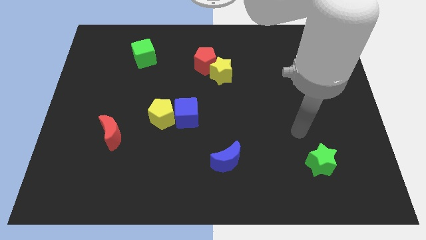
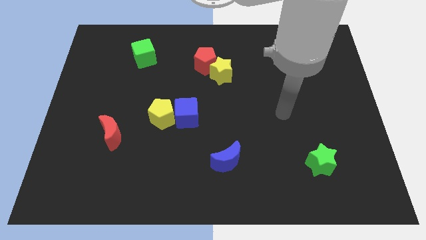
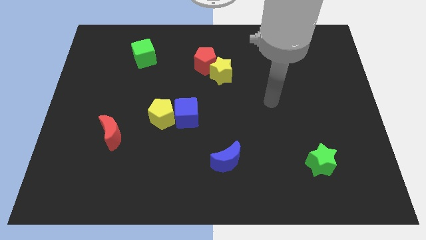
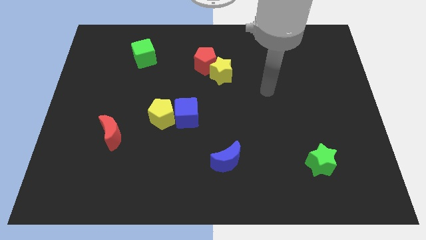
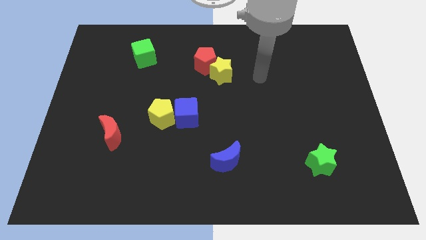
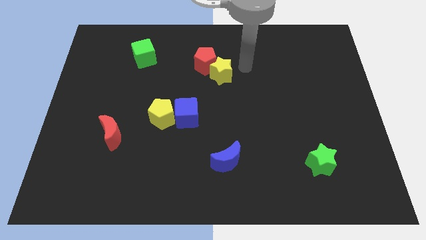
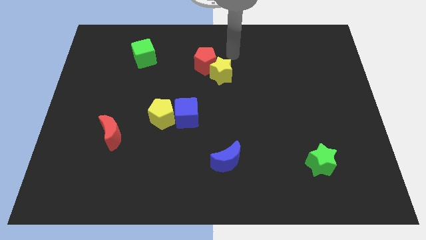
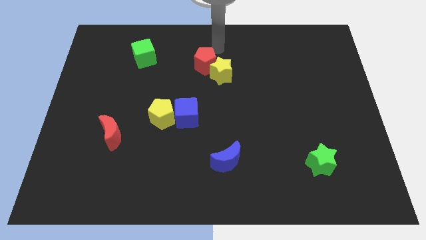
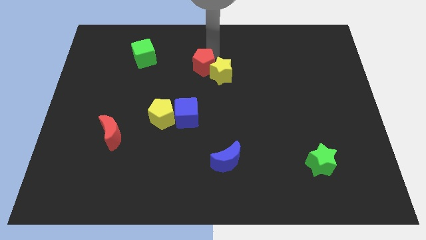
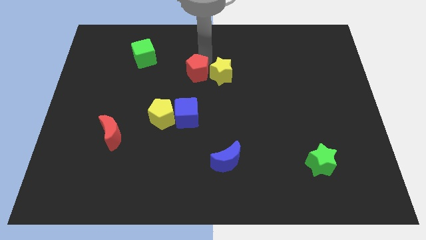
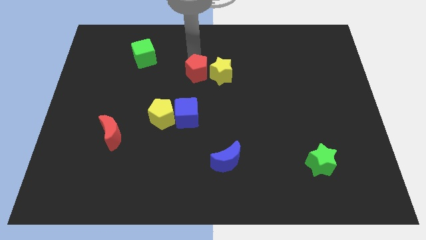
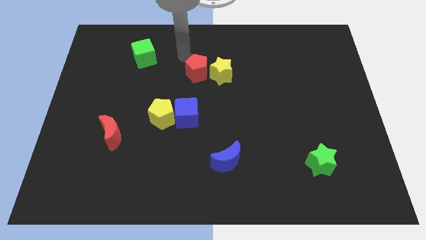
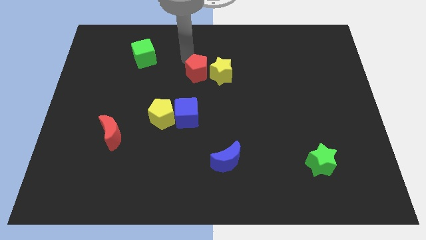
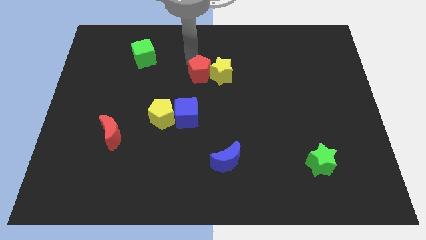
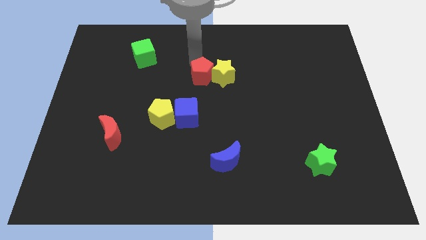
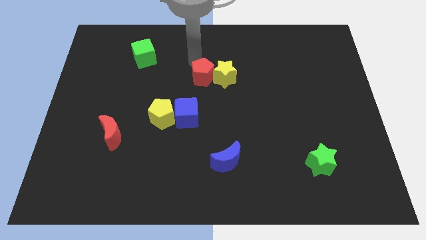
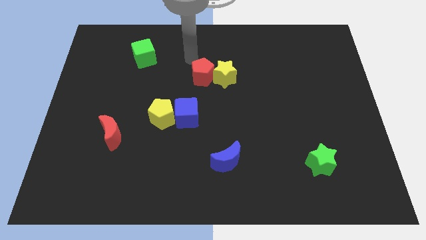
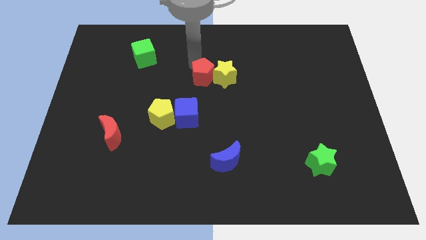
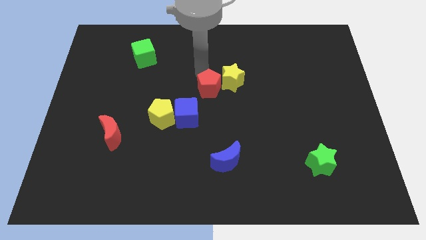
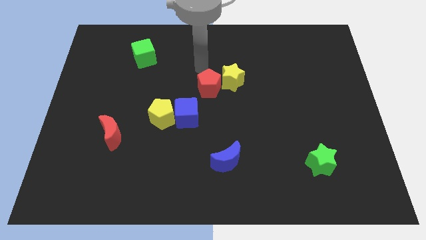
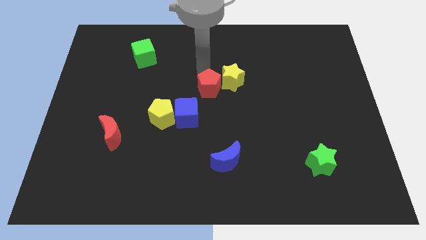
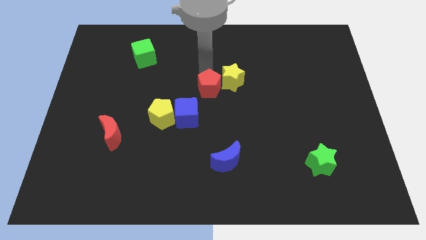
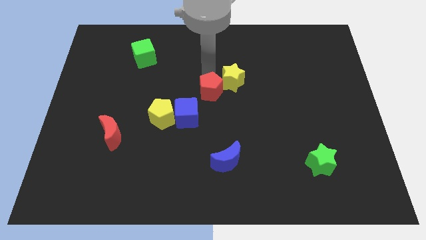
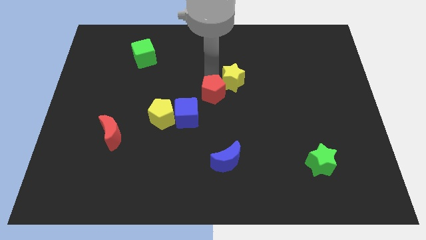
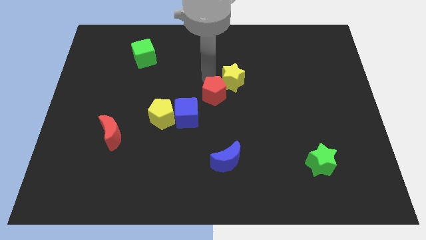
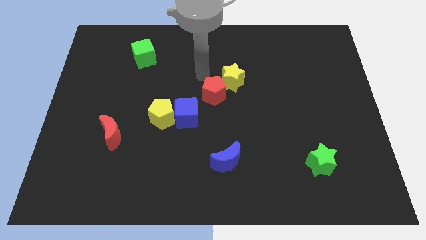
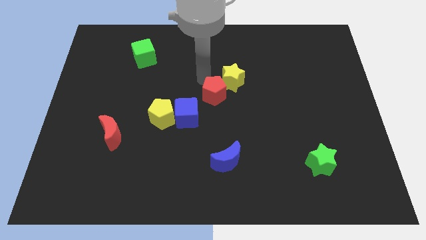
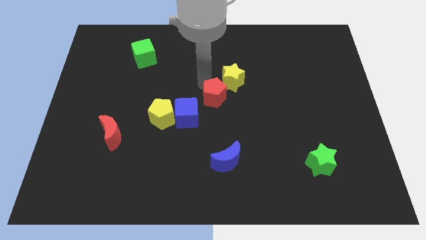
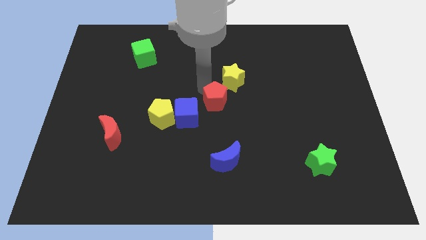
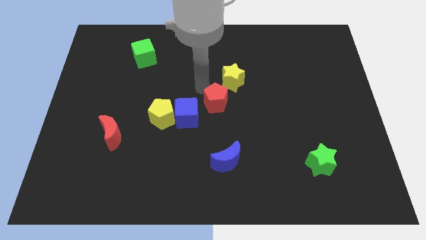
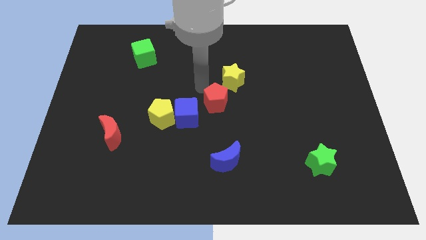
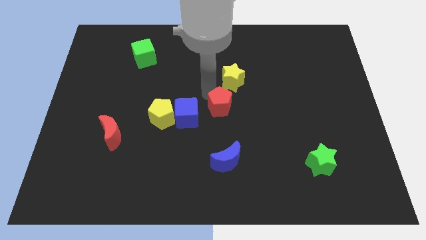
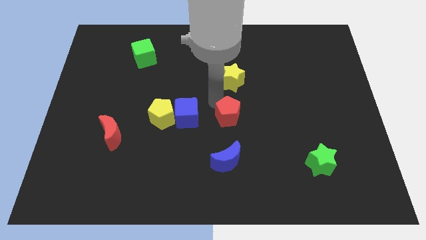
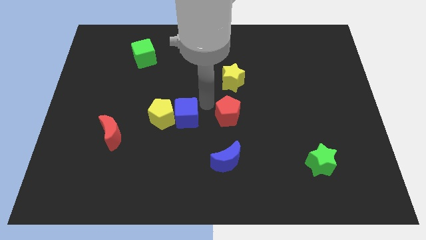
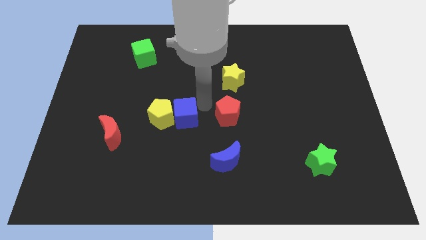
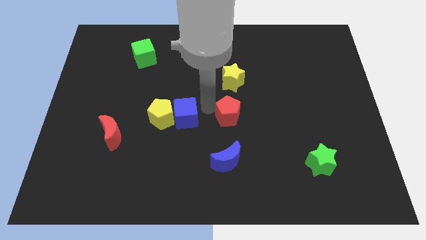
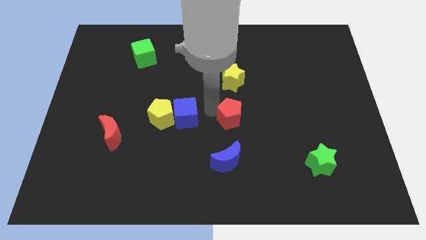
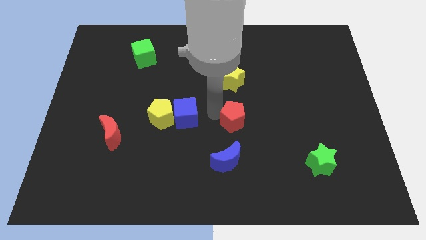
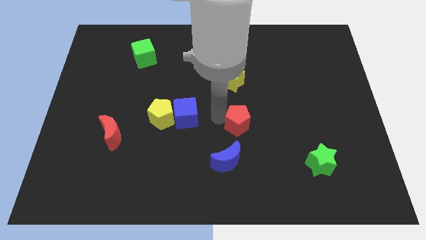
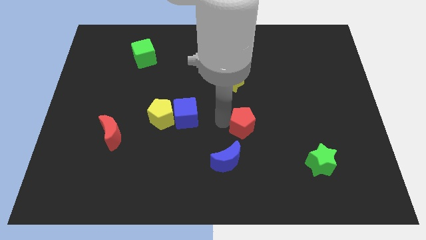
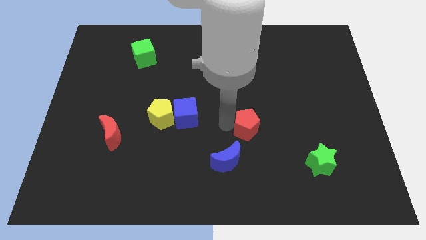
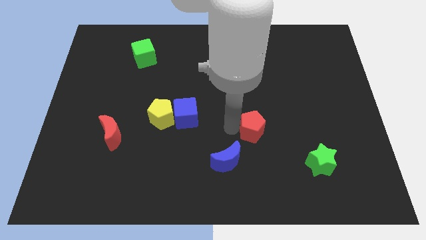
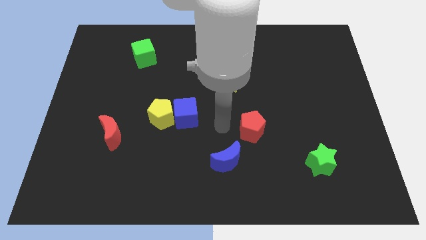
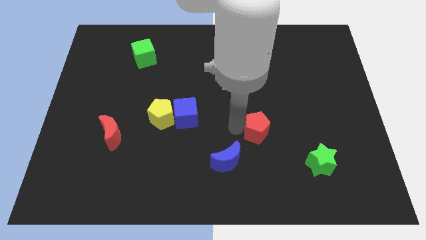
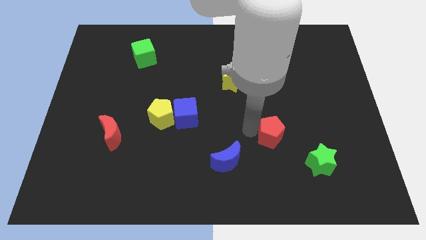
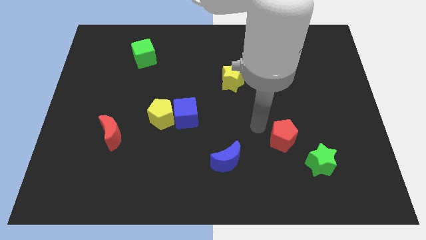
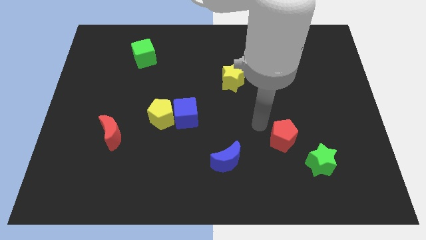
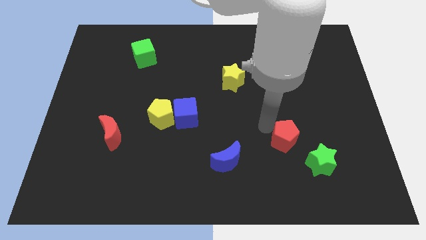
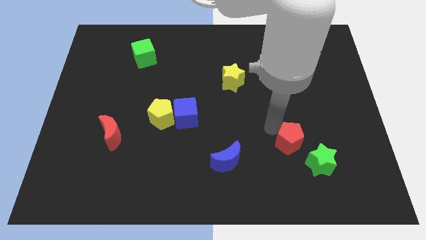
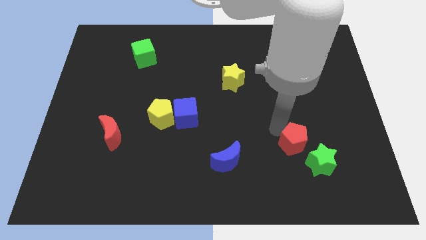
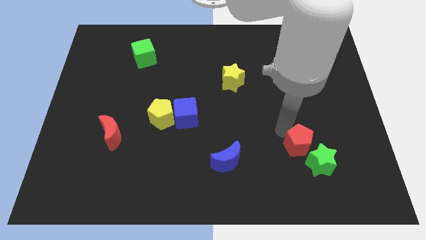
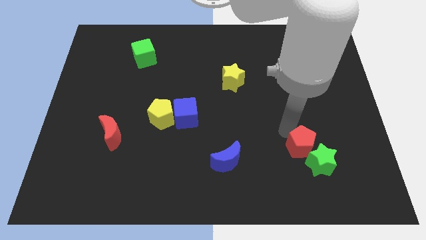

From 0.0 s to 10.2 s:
move the red pentagon close to the green star

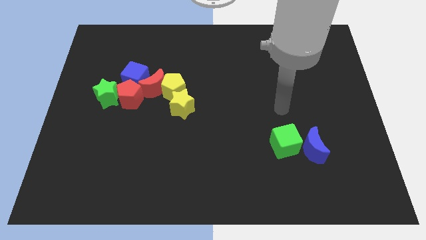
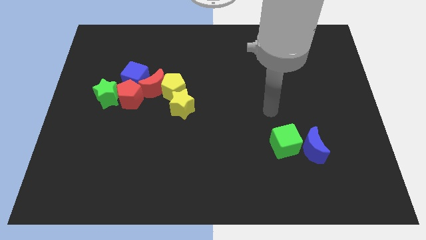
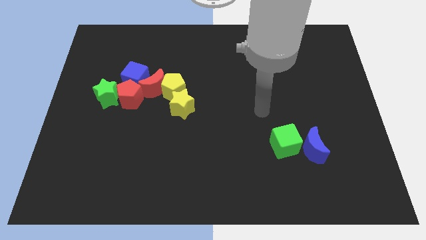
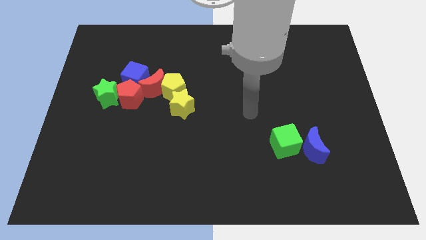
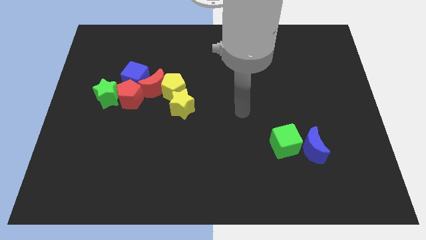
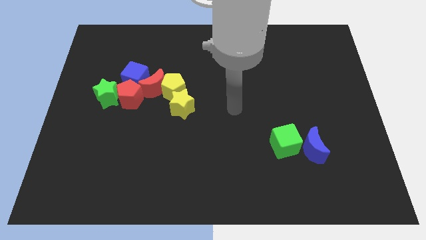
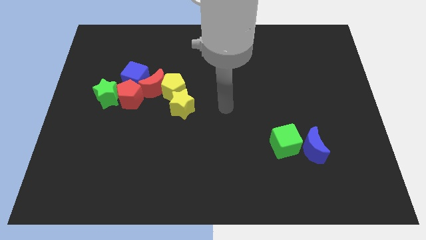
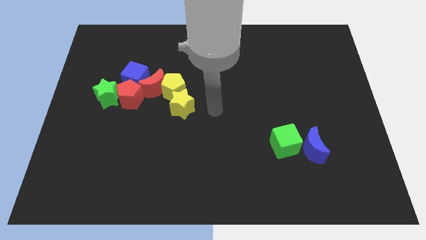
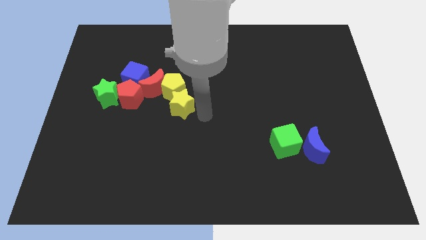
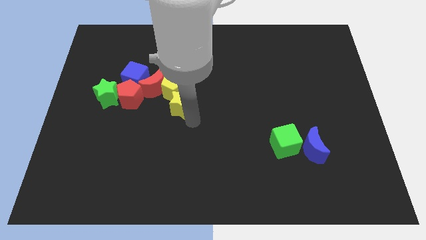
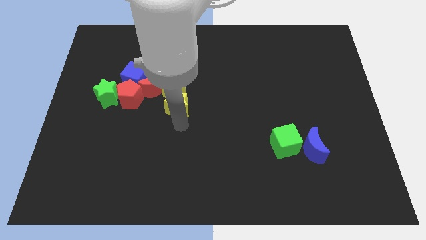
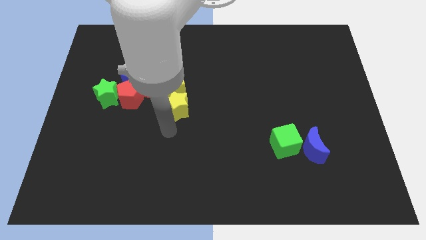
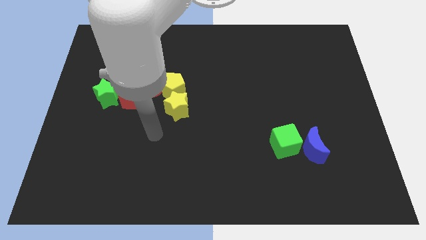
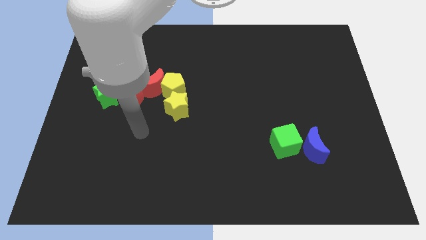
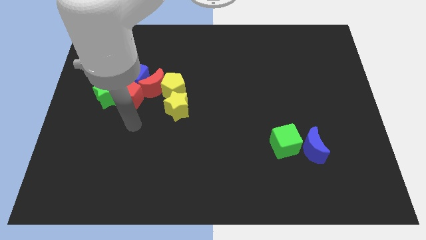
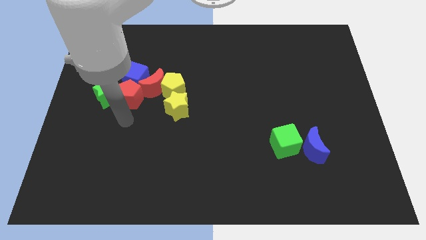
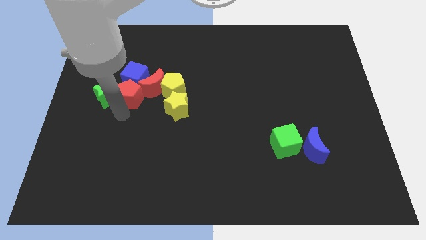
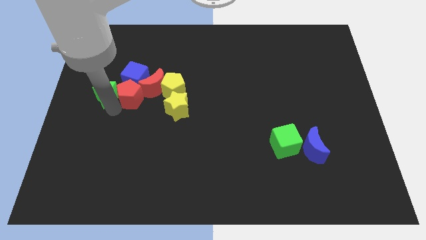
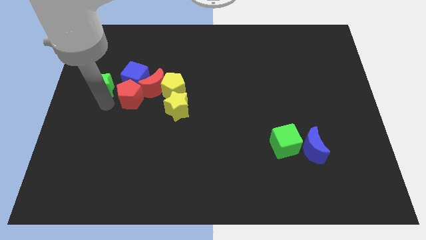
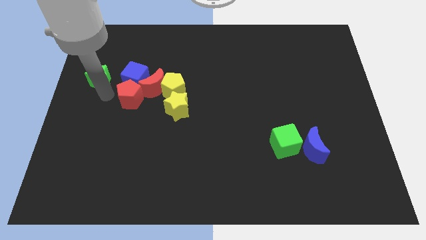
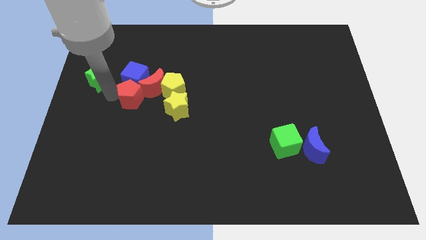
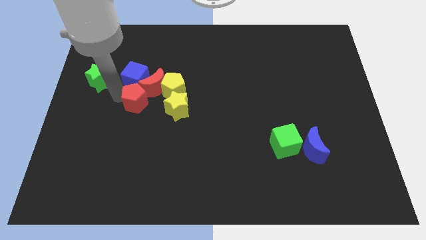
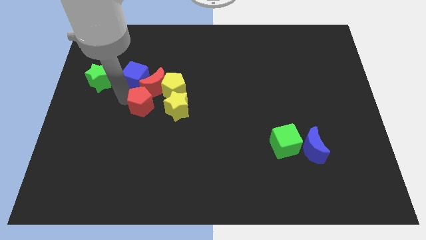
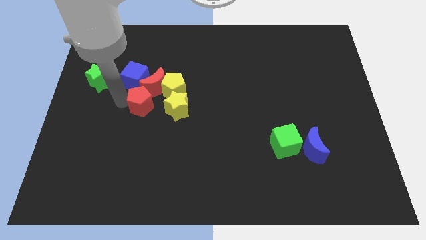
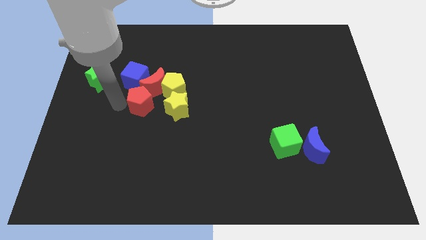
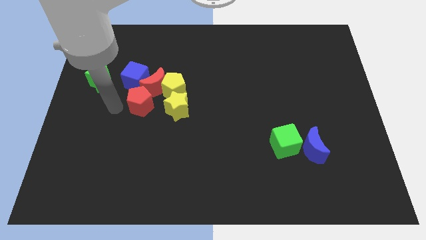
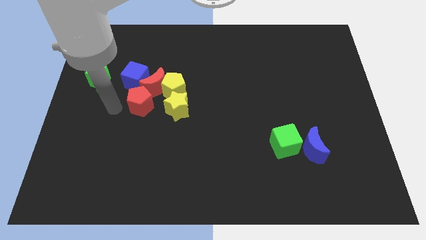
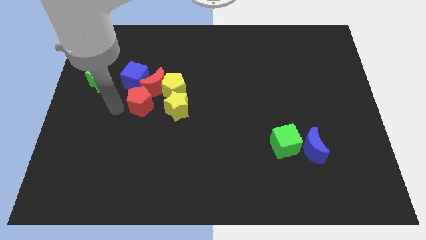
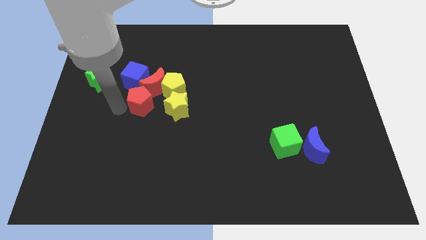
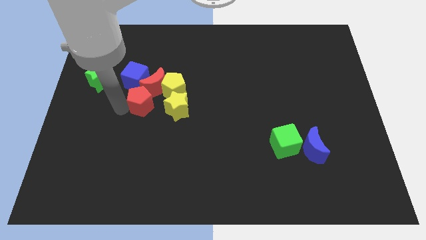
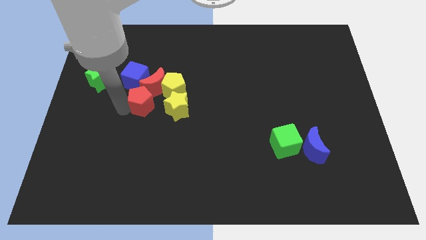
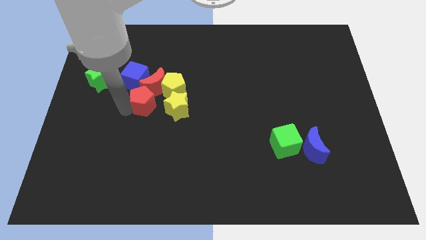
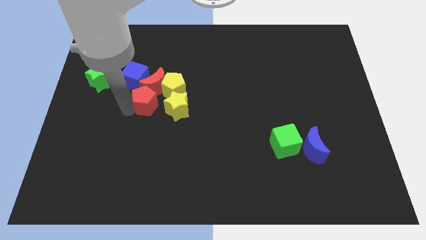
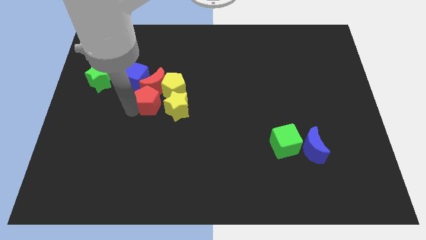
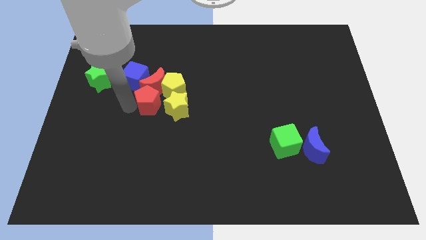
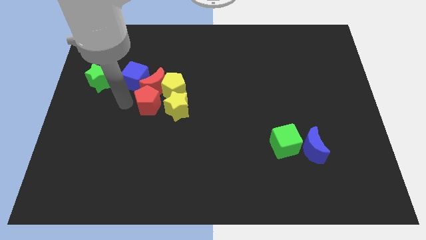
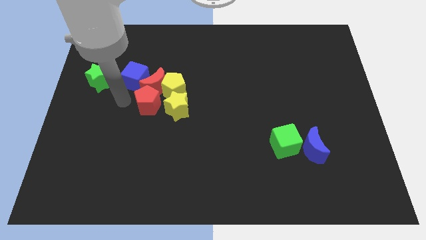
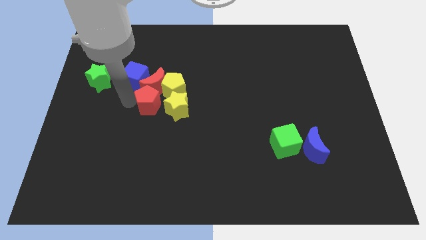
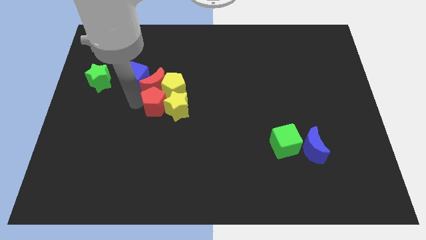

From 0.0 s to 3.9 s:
slide the red pentagon to the yellow star
